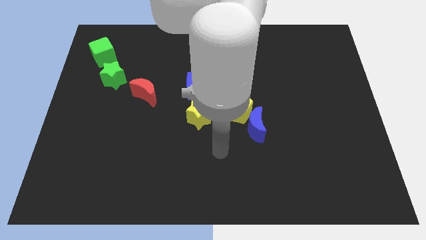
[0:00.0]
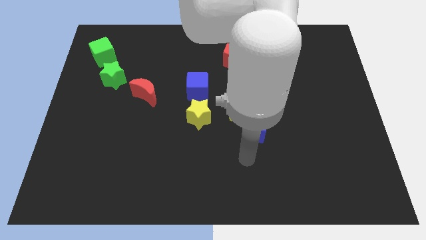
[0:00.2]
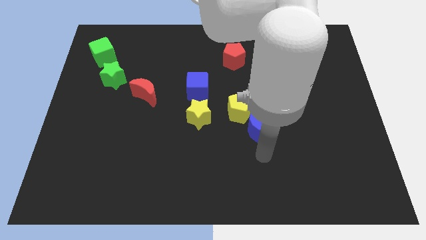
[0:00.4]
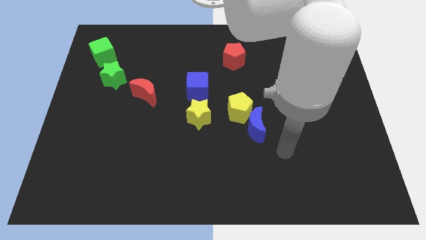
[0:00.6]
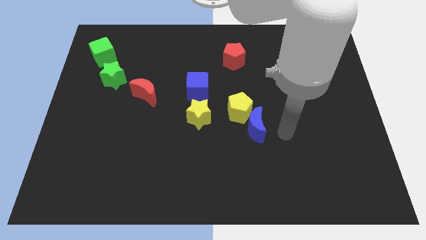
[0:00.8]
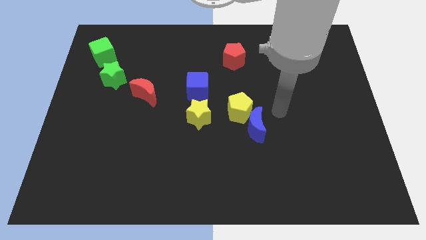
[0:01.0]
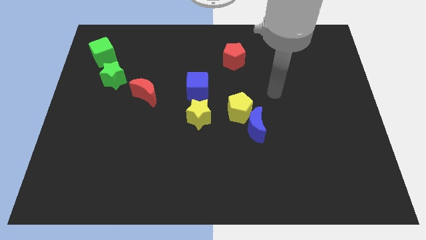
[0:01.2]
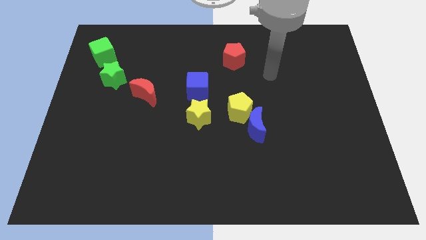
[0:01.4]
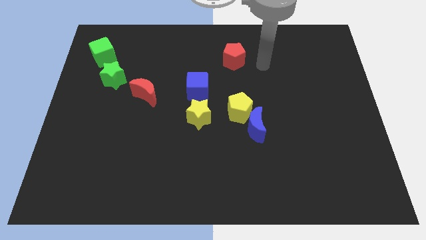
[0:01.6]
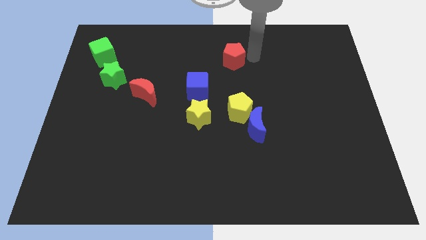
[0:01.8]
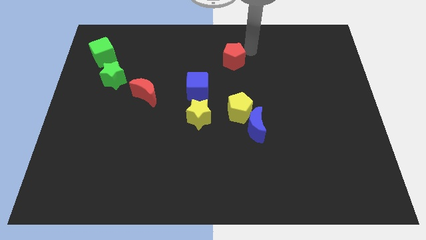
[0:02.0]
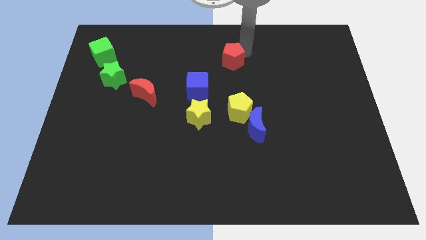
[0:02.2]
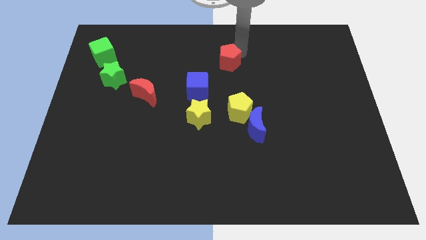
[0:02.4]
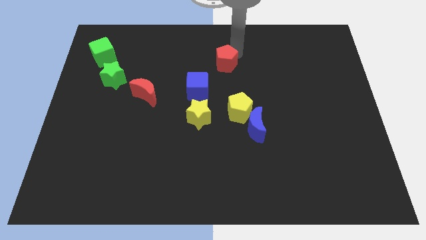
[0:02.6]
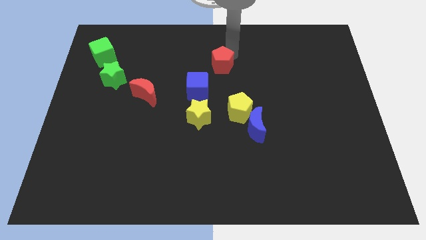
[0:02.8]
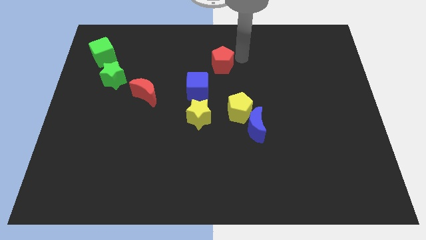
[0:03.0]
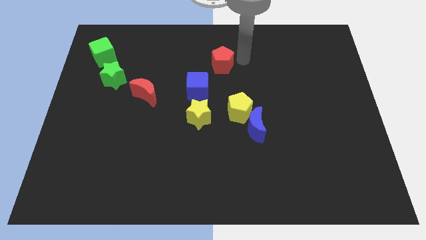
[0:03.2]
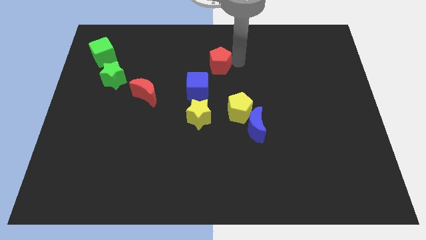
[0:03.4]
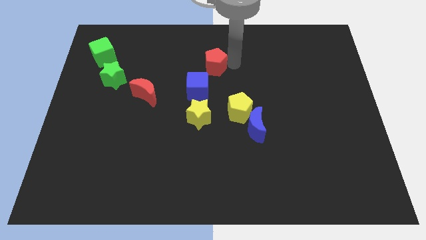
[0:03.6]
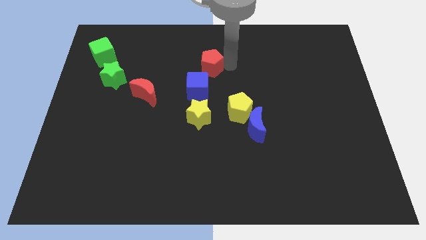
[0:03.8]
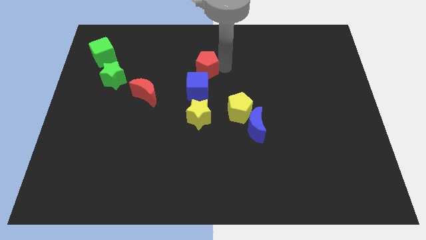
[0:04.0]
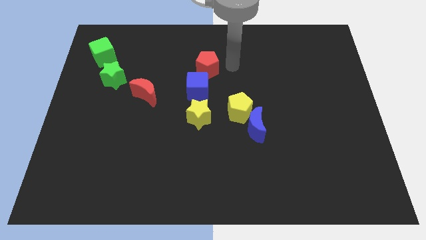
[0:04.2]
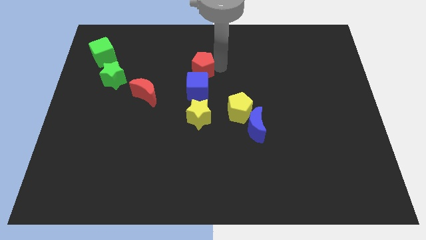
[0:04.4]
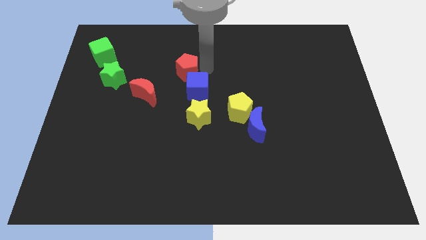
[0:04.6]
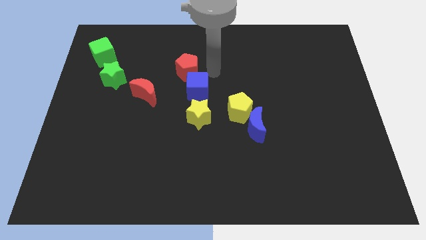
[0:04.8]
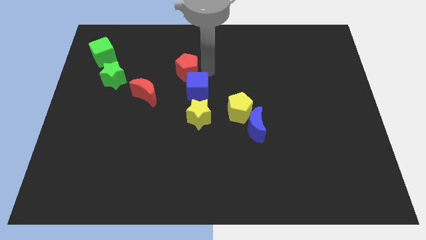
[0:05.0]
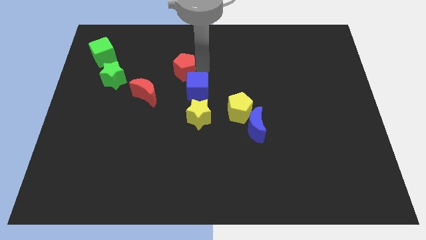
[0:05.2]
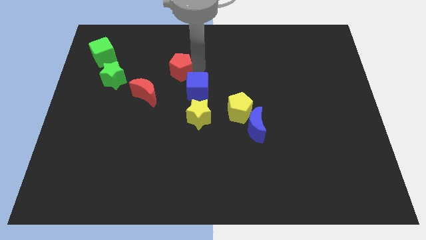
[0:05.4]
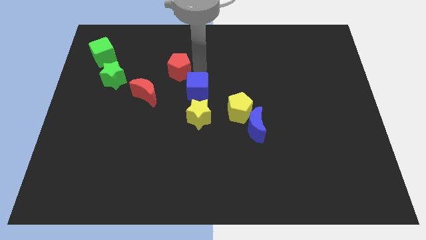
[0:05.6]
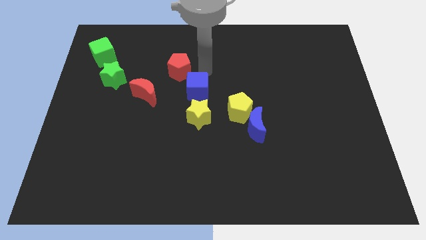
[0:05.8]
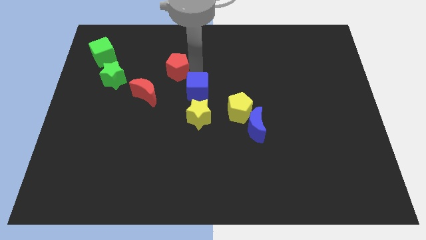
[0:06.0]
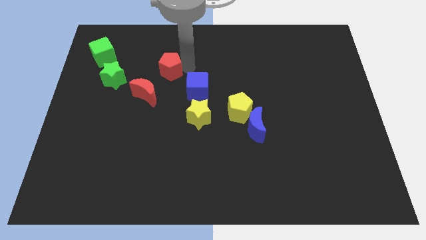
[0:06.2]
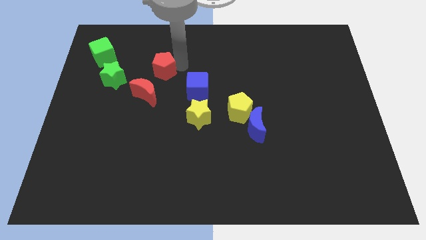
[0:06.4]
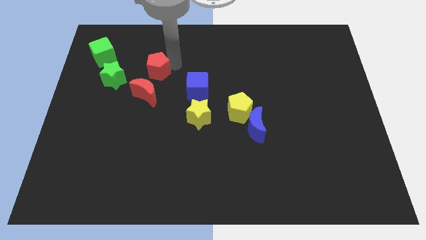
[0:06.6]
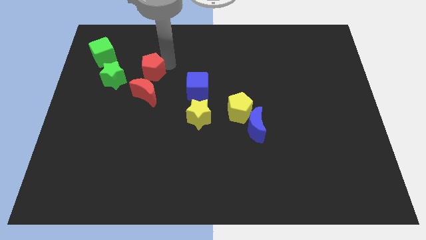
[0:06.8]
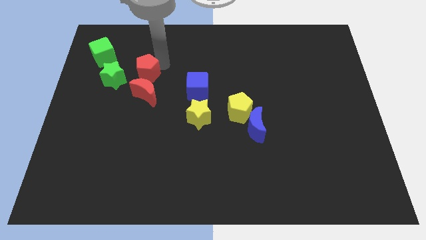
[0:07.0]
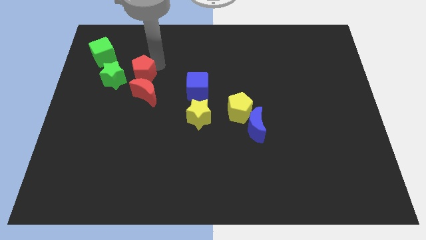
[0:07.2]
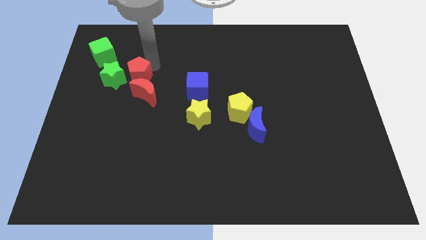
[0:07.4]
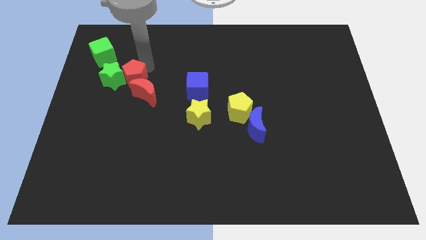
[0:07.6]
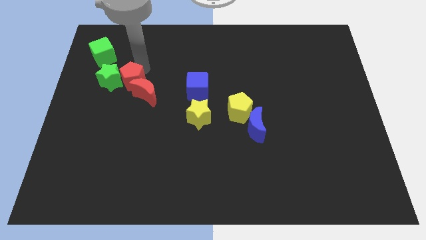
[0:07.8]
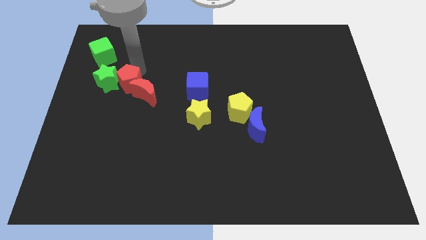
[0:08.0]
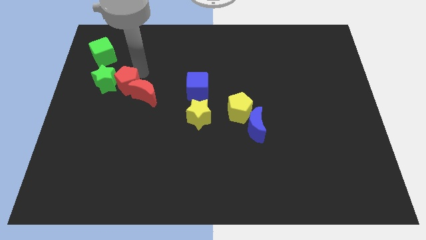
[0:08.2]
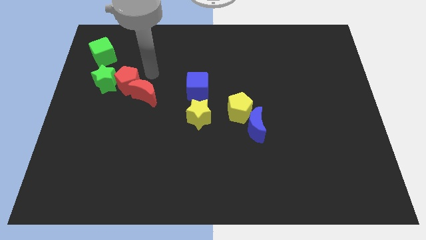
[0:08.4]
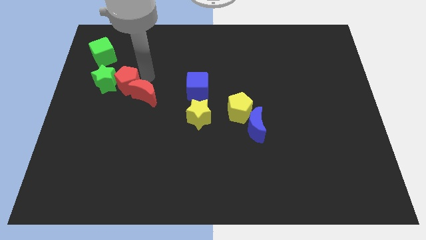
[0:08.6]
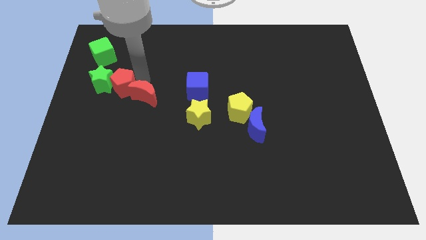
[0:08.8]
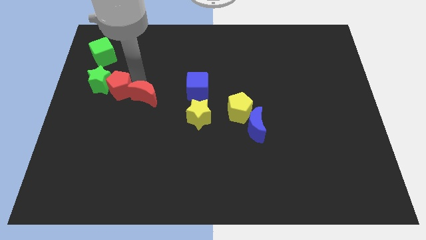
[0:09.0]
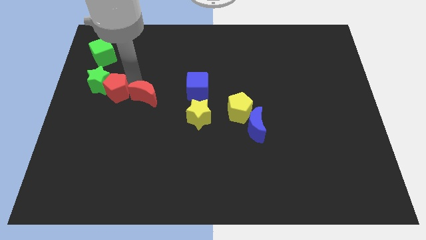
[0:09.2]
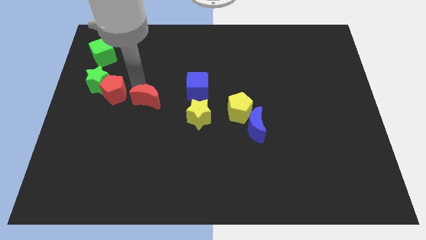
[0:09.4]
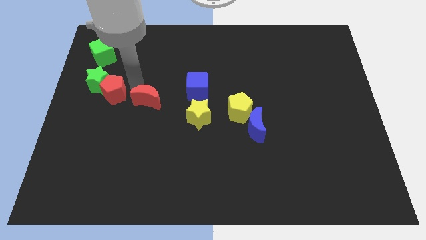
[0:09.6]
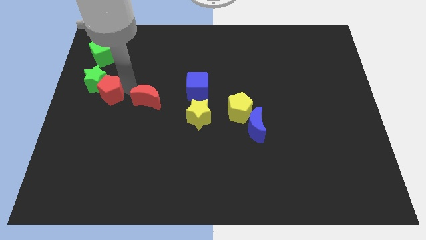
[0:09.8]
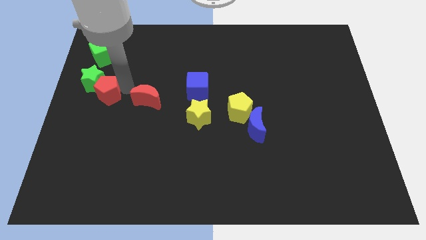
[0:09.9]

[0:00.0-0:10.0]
slide the red pentagon to the center left

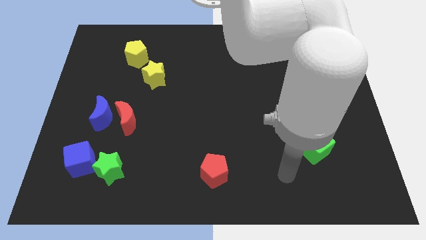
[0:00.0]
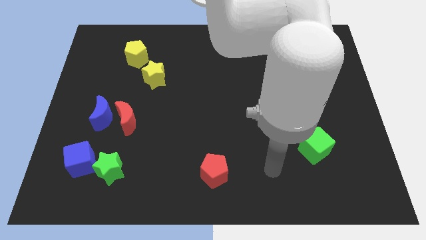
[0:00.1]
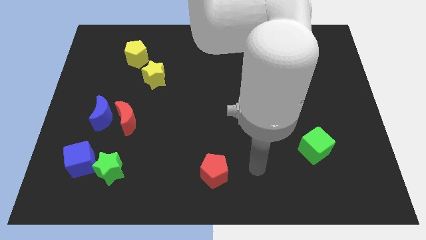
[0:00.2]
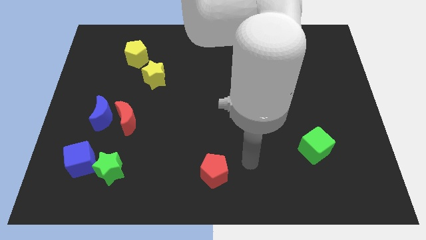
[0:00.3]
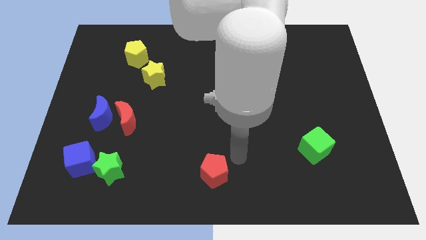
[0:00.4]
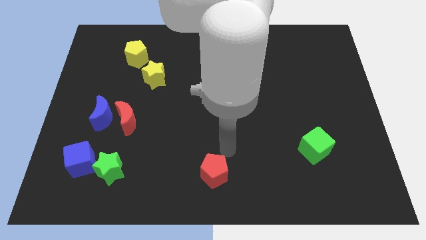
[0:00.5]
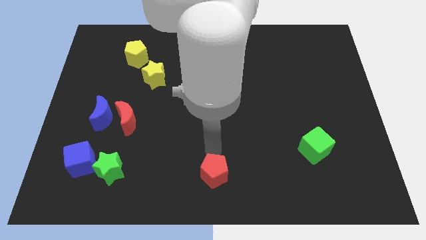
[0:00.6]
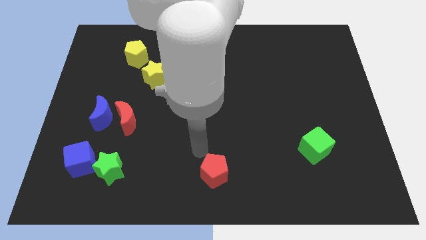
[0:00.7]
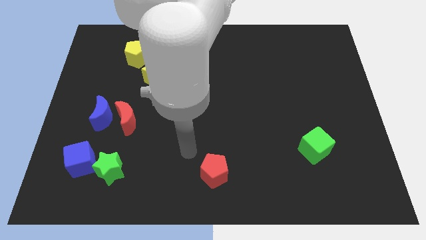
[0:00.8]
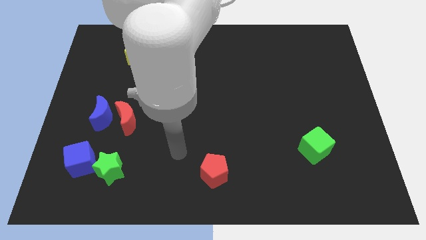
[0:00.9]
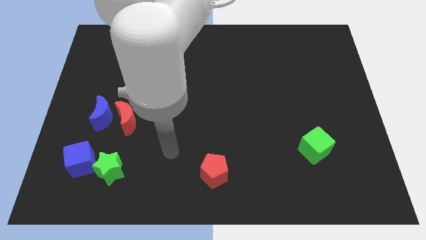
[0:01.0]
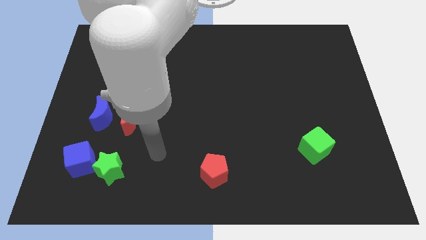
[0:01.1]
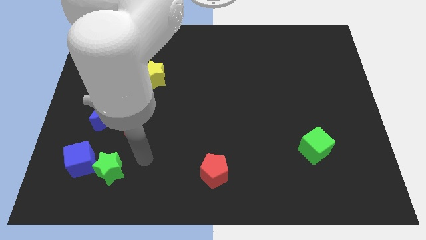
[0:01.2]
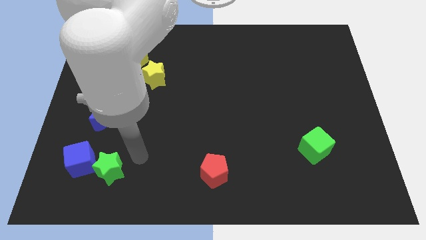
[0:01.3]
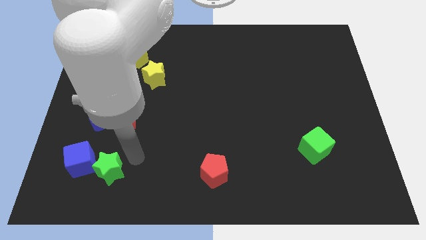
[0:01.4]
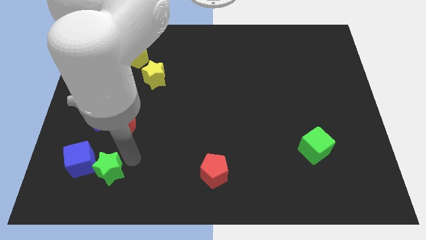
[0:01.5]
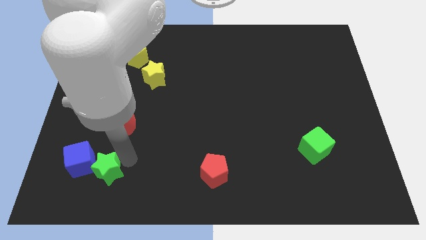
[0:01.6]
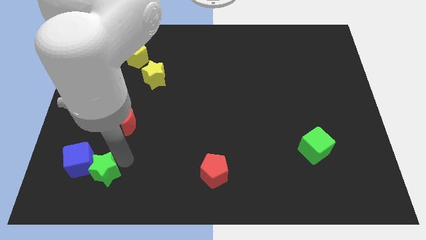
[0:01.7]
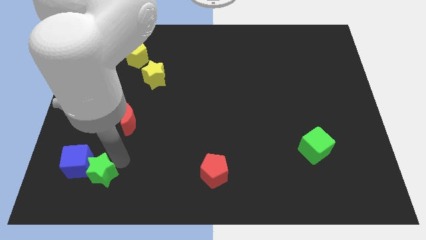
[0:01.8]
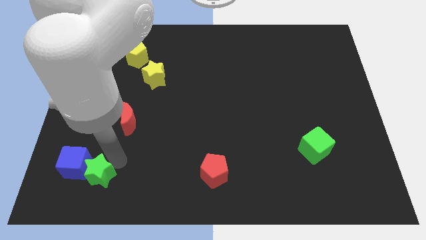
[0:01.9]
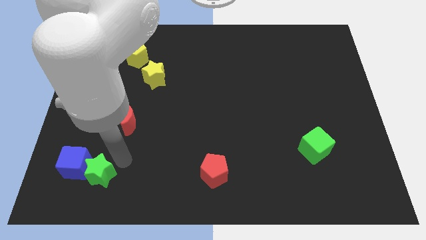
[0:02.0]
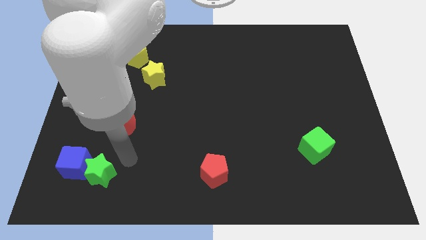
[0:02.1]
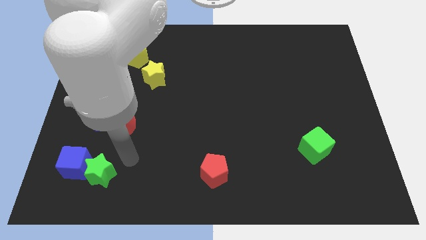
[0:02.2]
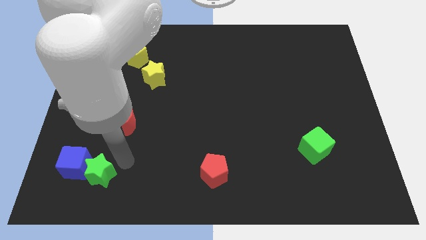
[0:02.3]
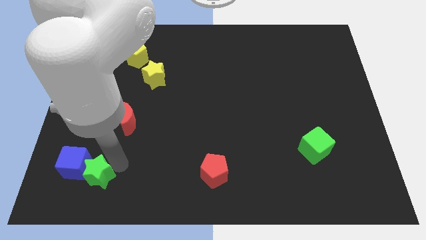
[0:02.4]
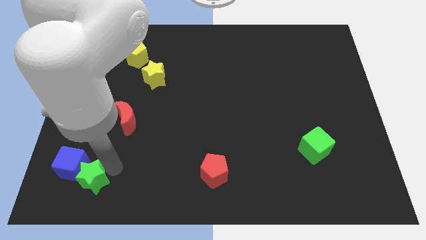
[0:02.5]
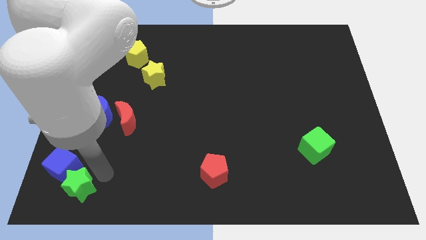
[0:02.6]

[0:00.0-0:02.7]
move the green star to the bottom left corner
